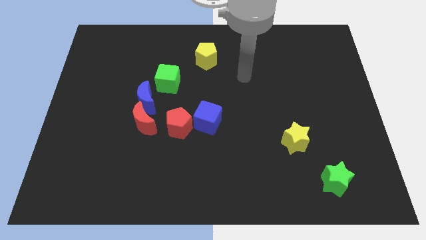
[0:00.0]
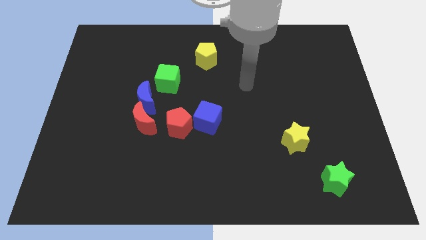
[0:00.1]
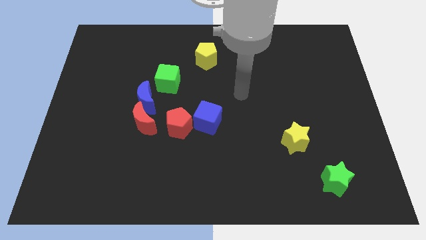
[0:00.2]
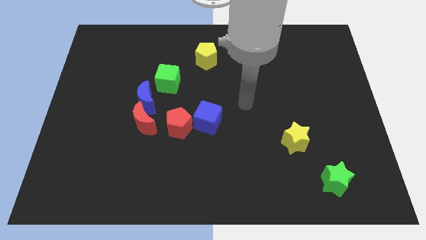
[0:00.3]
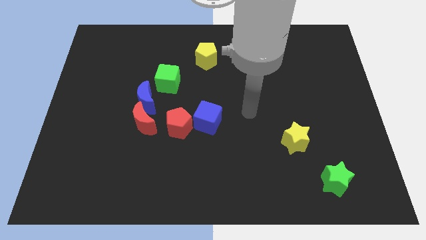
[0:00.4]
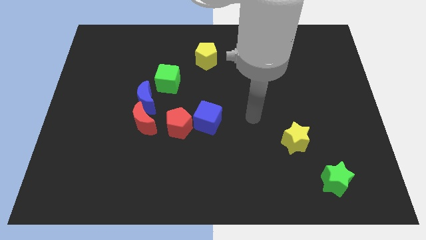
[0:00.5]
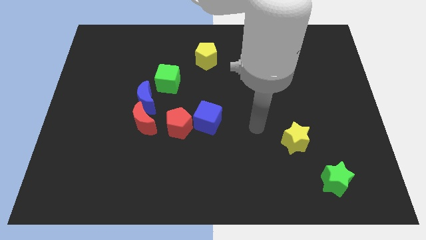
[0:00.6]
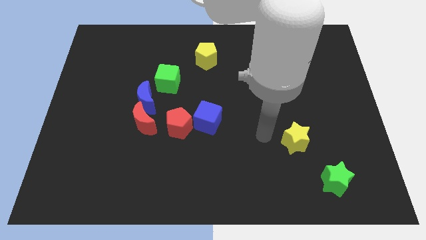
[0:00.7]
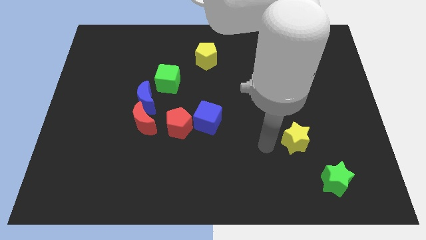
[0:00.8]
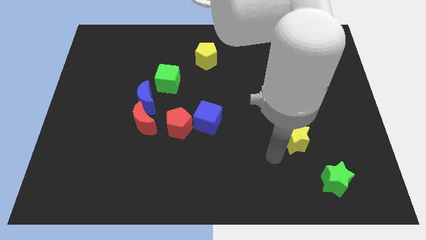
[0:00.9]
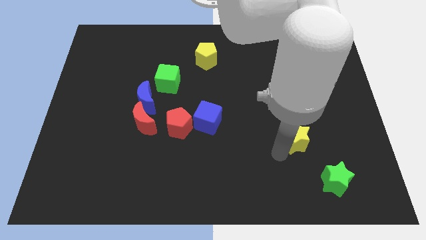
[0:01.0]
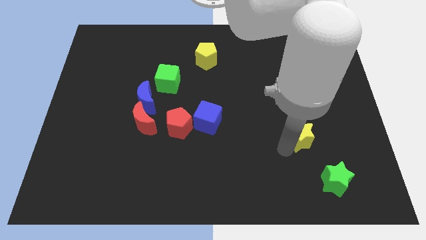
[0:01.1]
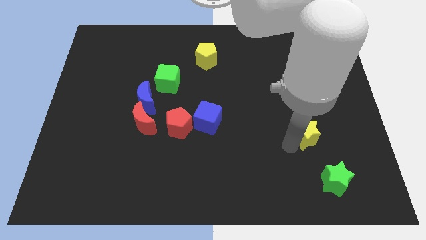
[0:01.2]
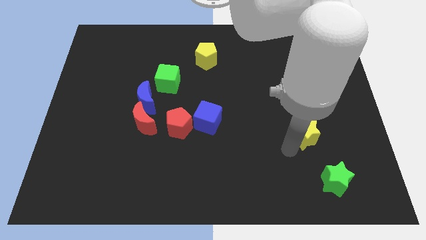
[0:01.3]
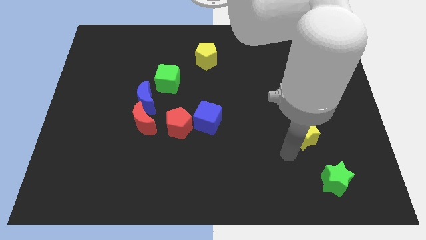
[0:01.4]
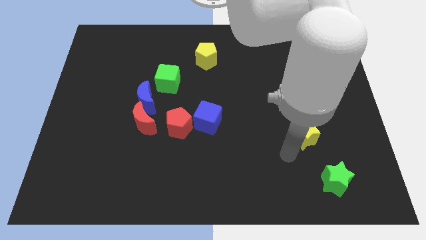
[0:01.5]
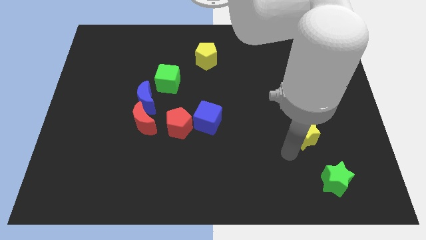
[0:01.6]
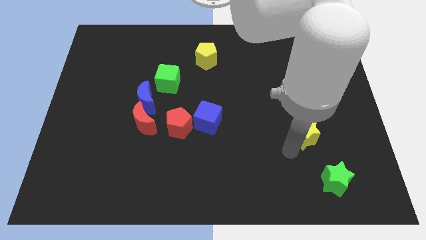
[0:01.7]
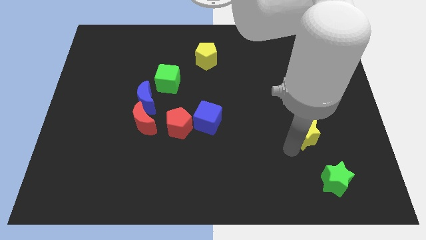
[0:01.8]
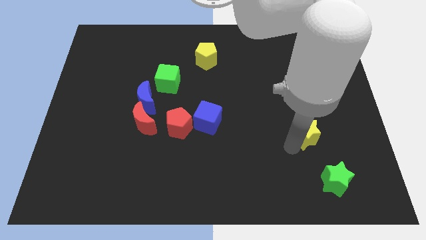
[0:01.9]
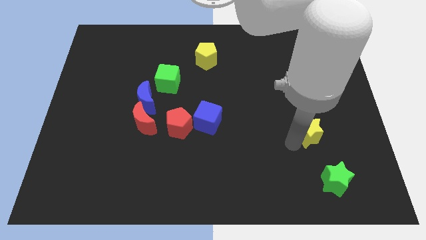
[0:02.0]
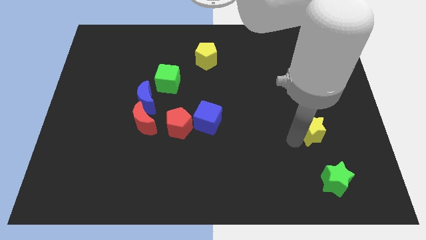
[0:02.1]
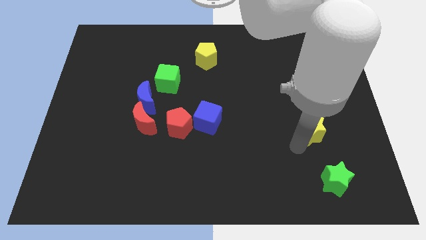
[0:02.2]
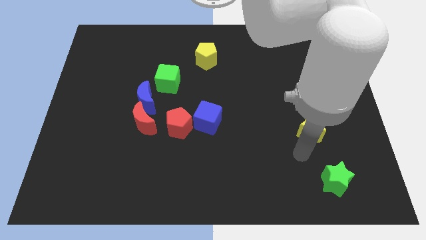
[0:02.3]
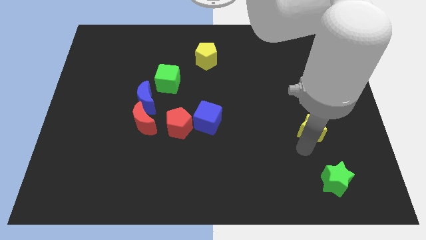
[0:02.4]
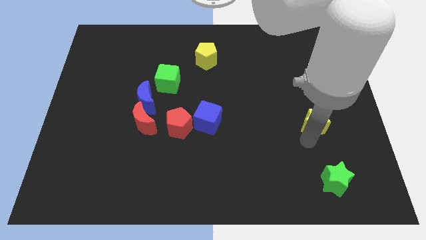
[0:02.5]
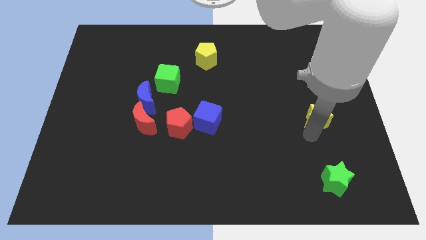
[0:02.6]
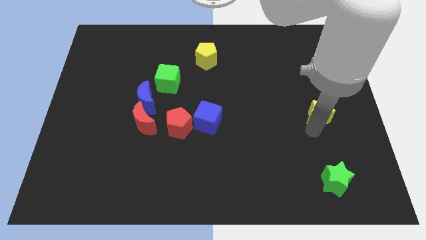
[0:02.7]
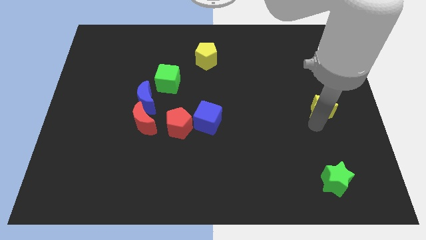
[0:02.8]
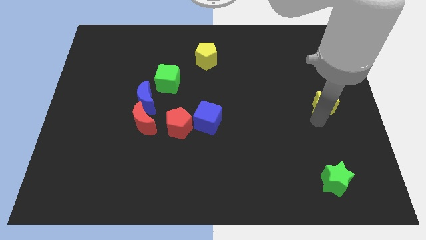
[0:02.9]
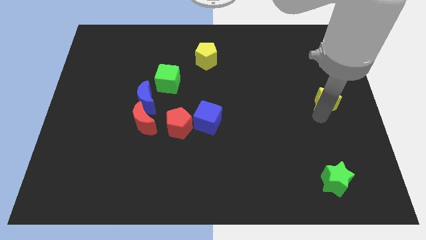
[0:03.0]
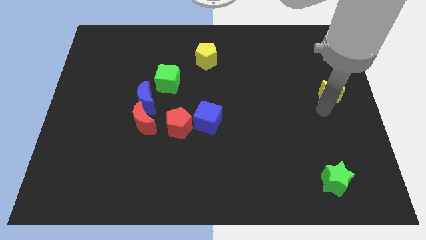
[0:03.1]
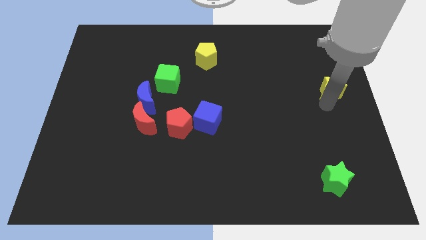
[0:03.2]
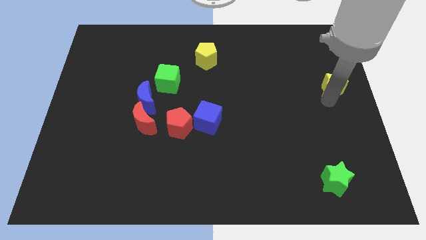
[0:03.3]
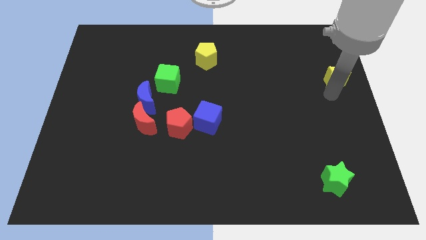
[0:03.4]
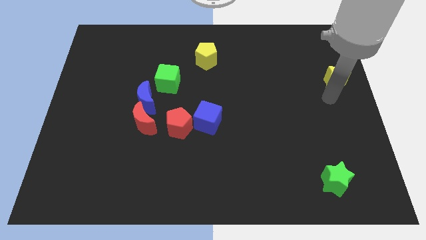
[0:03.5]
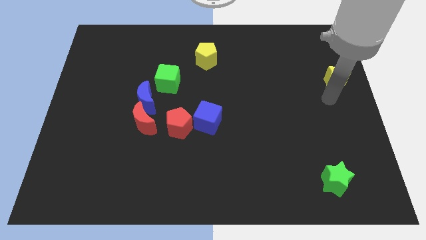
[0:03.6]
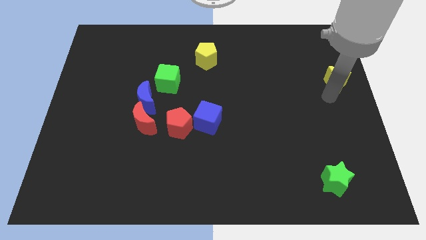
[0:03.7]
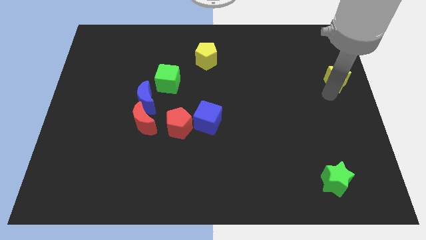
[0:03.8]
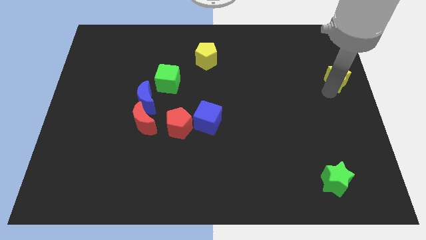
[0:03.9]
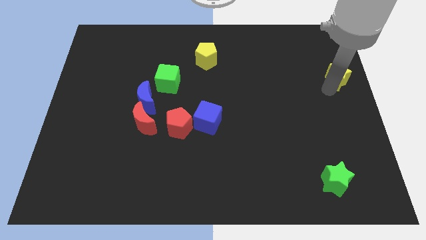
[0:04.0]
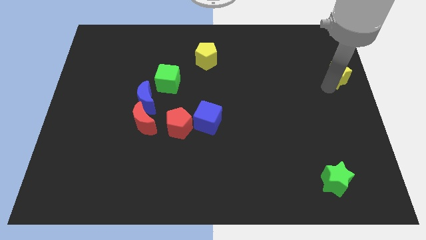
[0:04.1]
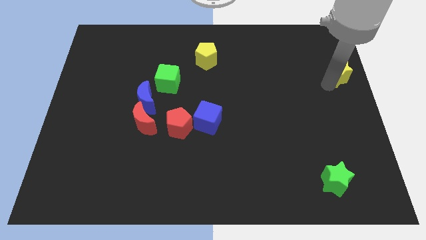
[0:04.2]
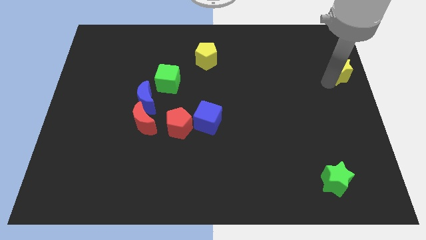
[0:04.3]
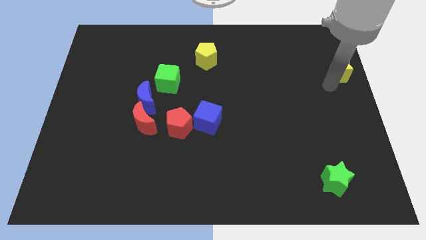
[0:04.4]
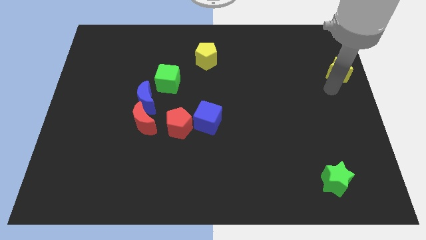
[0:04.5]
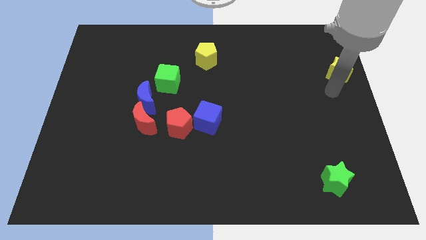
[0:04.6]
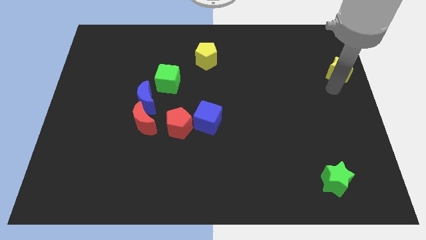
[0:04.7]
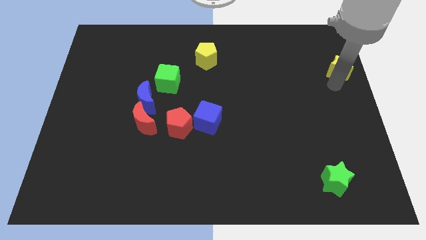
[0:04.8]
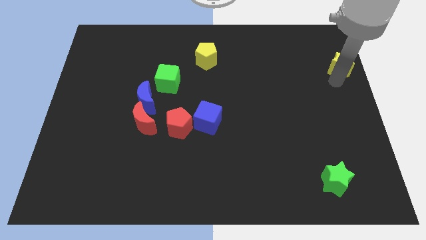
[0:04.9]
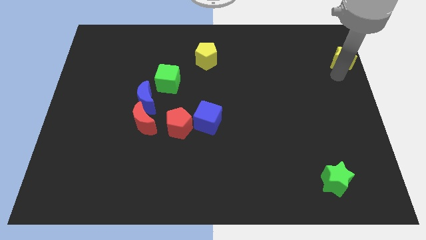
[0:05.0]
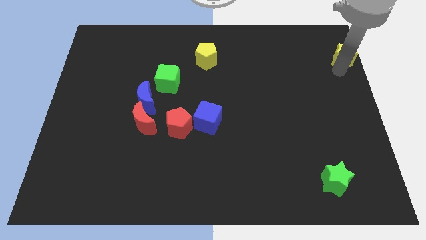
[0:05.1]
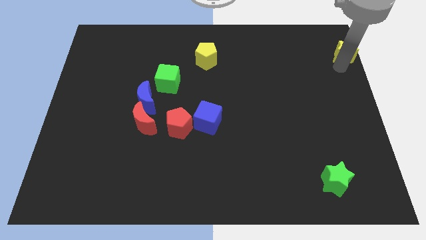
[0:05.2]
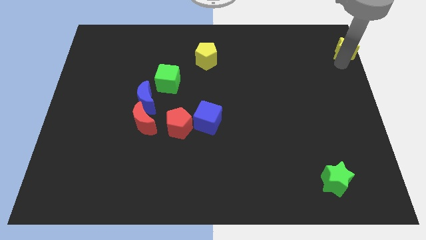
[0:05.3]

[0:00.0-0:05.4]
put the yellow star to the top right

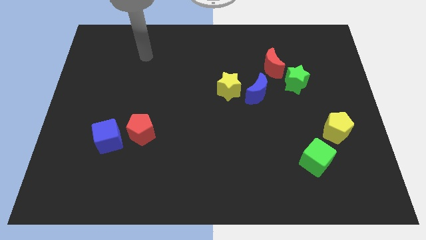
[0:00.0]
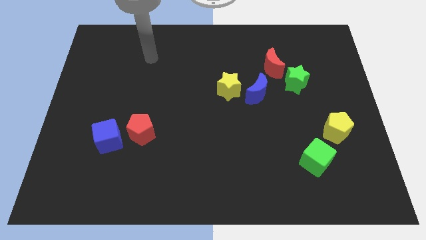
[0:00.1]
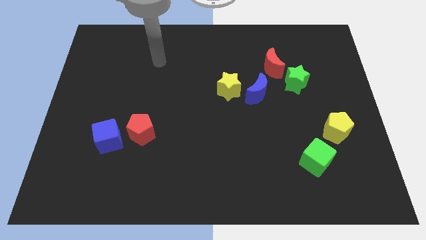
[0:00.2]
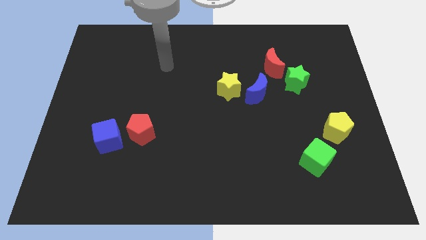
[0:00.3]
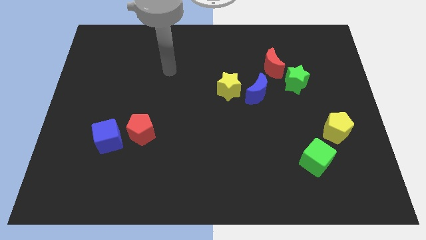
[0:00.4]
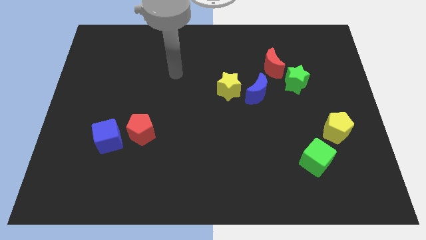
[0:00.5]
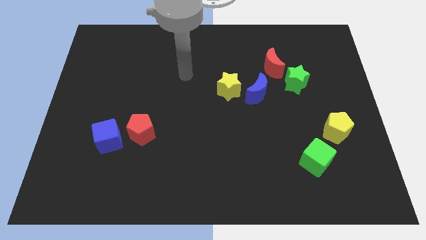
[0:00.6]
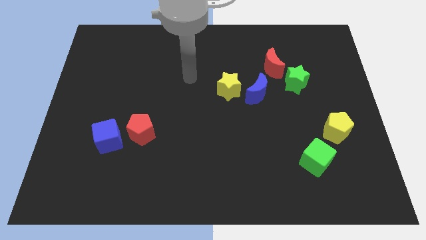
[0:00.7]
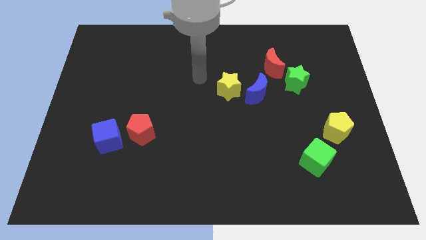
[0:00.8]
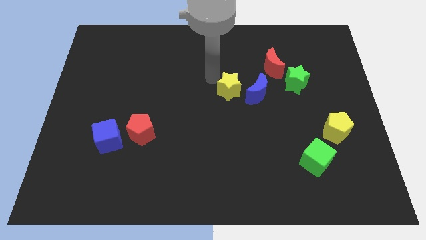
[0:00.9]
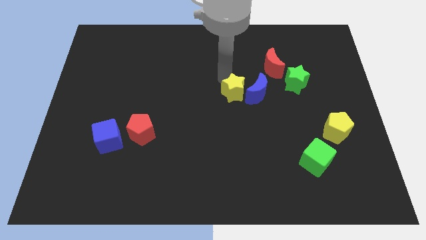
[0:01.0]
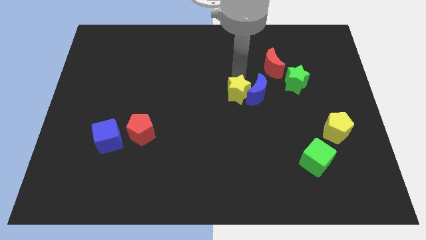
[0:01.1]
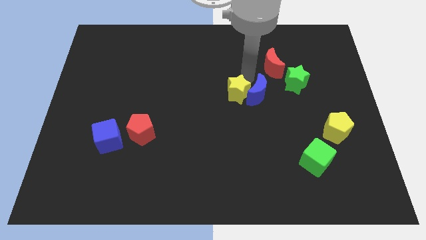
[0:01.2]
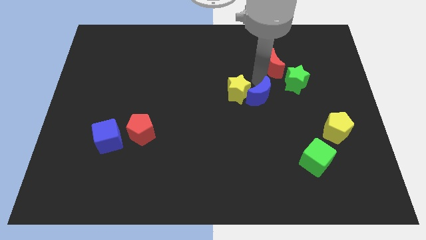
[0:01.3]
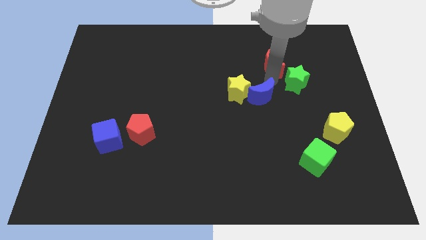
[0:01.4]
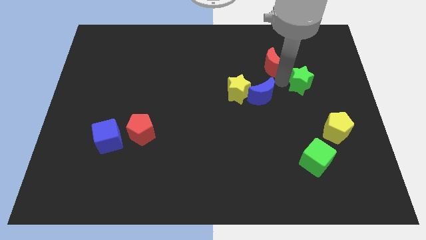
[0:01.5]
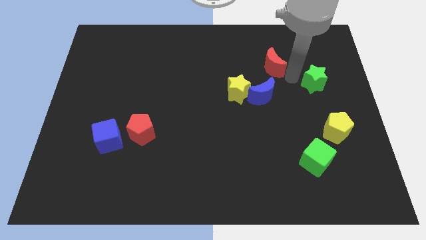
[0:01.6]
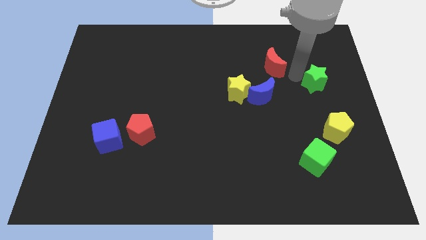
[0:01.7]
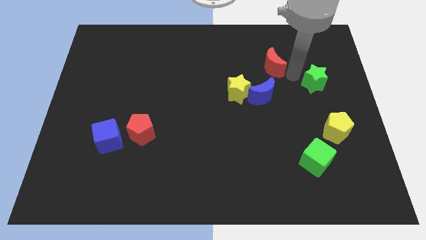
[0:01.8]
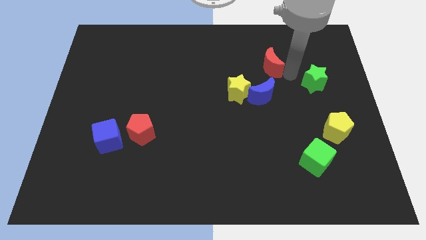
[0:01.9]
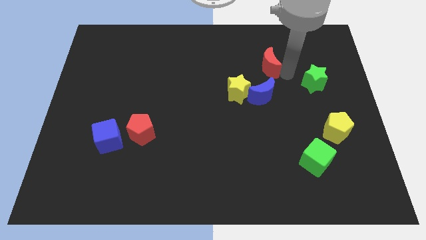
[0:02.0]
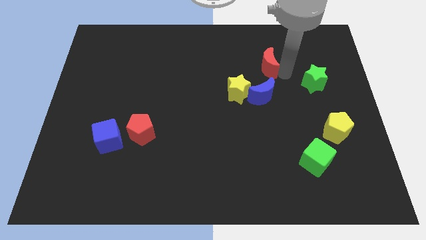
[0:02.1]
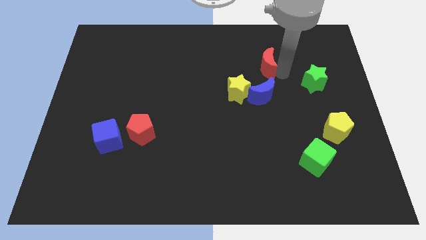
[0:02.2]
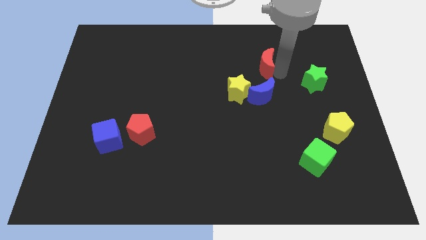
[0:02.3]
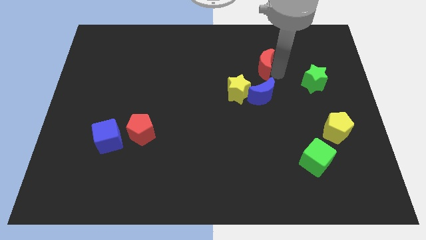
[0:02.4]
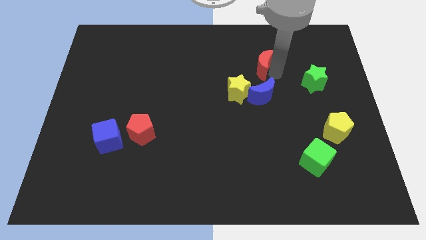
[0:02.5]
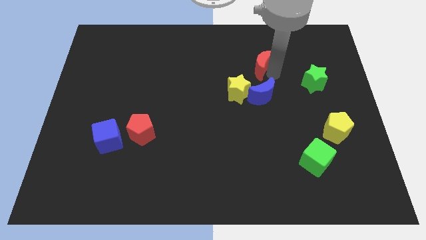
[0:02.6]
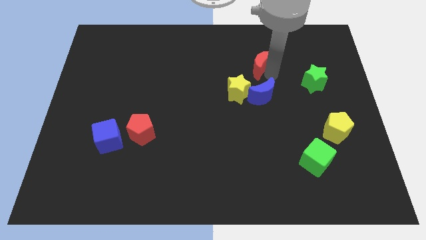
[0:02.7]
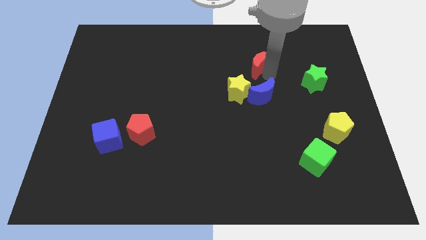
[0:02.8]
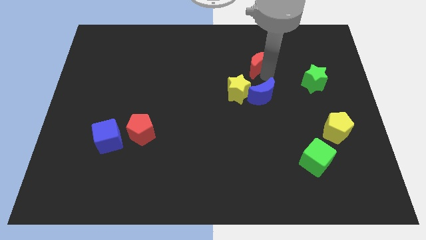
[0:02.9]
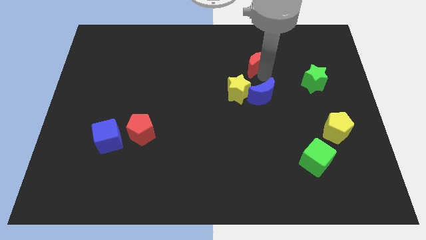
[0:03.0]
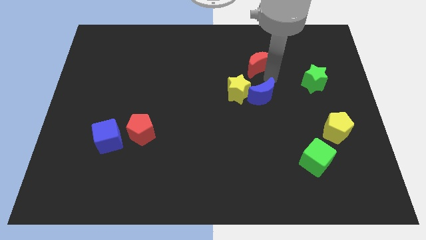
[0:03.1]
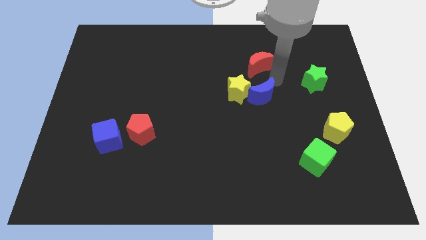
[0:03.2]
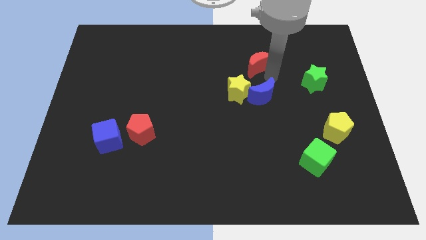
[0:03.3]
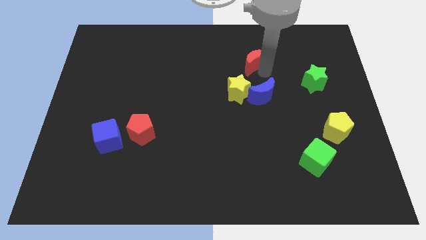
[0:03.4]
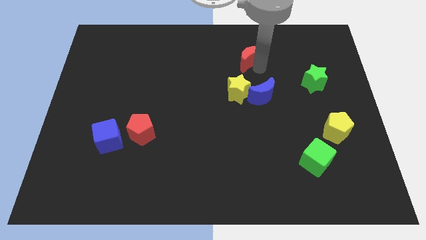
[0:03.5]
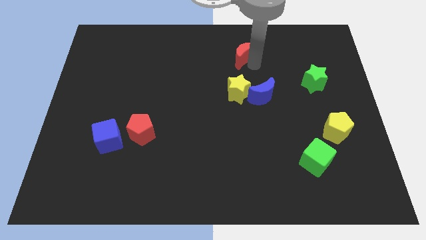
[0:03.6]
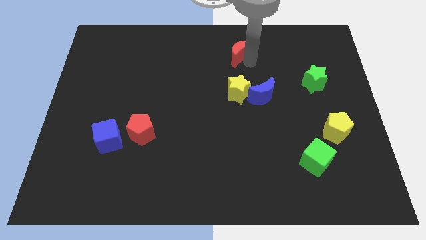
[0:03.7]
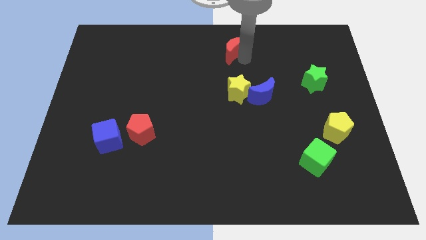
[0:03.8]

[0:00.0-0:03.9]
push the red moon to the towards your base
